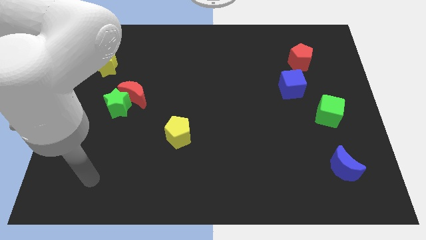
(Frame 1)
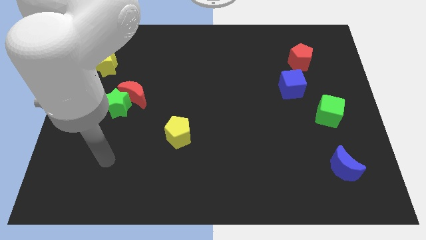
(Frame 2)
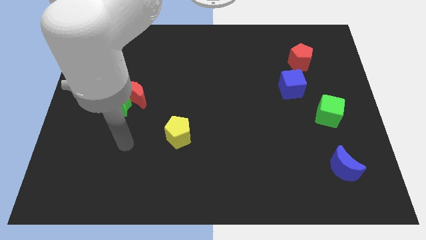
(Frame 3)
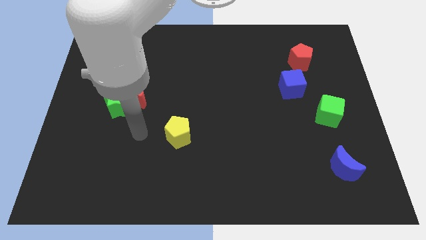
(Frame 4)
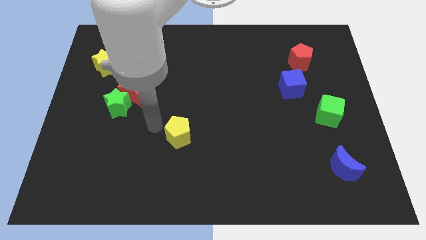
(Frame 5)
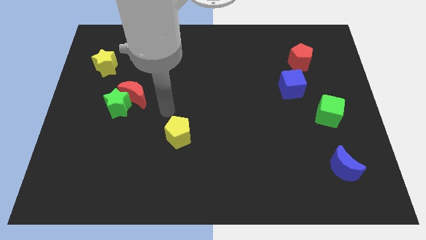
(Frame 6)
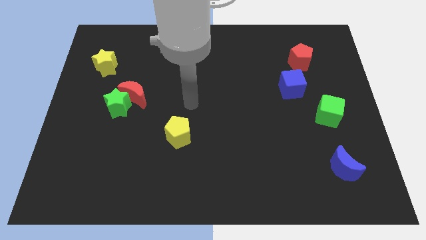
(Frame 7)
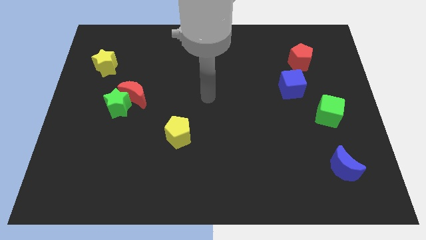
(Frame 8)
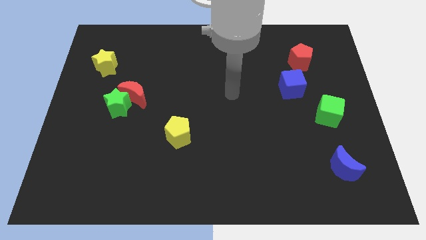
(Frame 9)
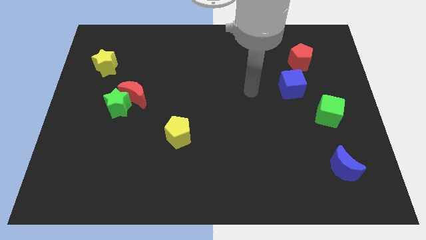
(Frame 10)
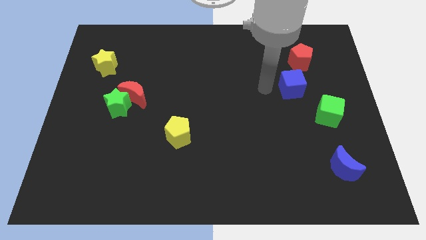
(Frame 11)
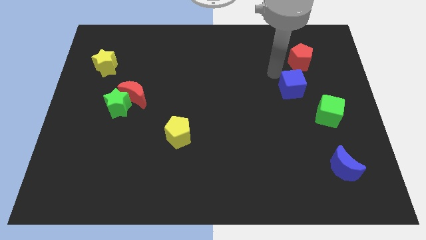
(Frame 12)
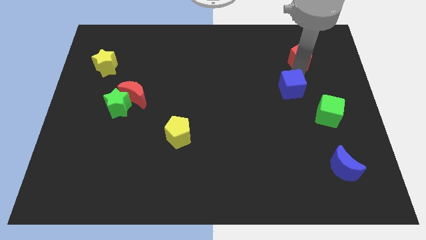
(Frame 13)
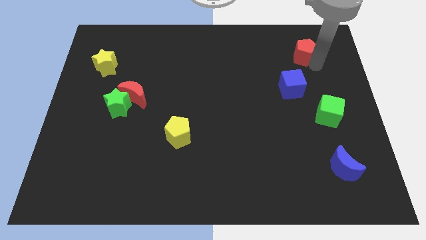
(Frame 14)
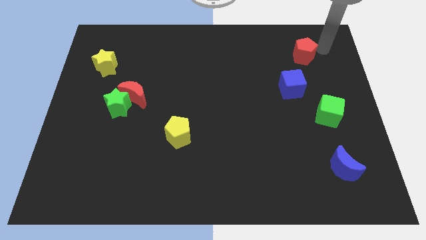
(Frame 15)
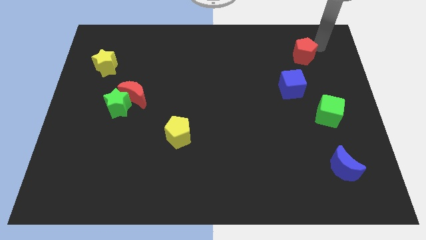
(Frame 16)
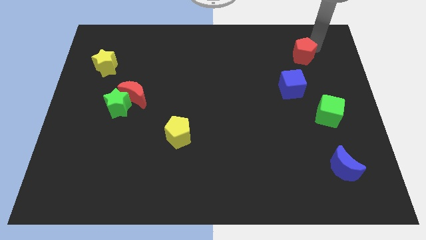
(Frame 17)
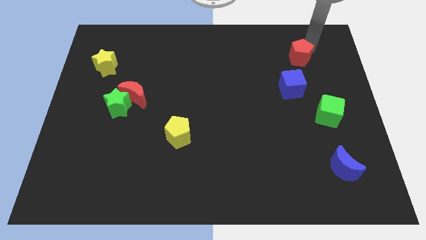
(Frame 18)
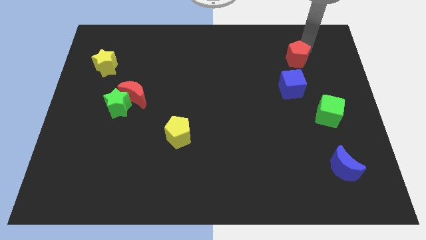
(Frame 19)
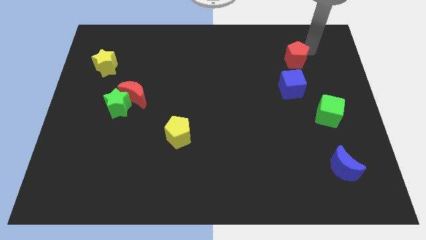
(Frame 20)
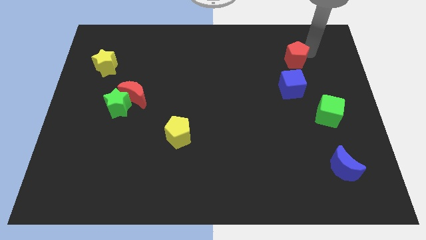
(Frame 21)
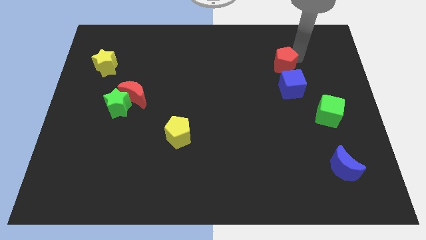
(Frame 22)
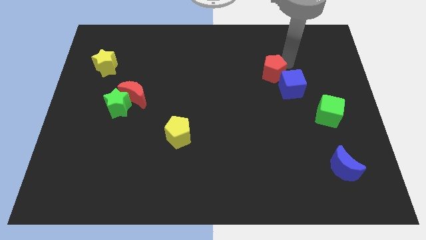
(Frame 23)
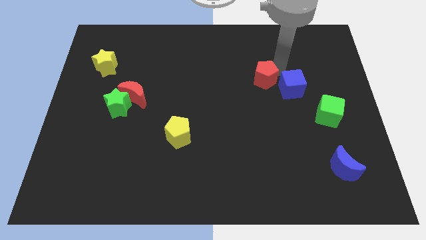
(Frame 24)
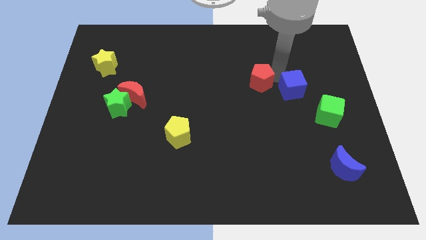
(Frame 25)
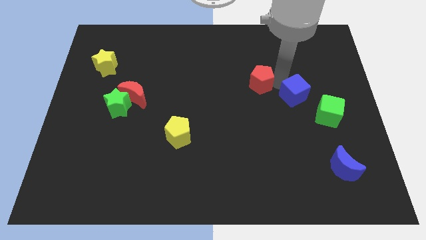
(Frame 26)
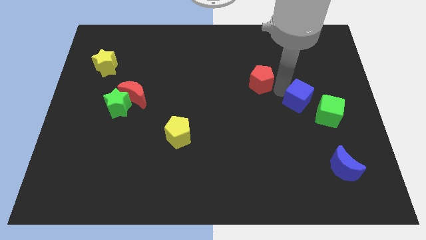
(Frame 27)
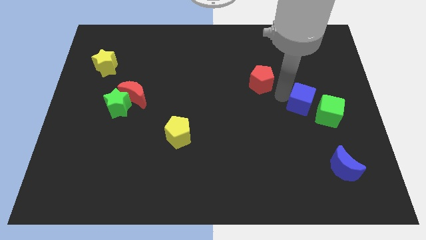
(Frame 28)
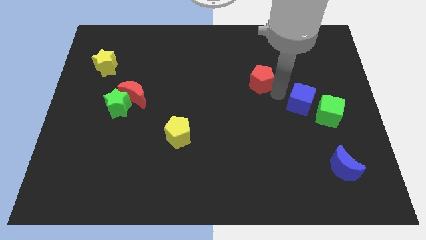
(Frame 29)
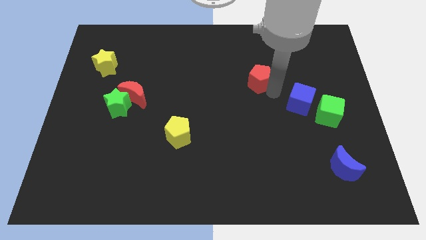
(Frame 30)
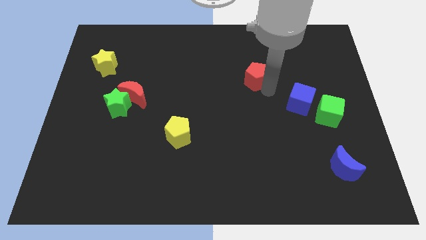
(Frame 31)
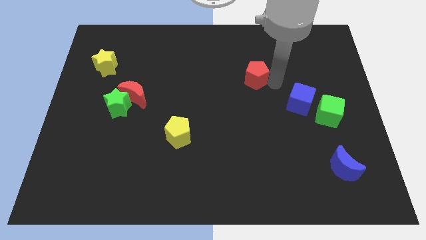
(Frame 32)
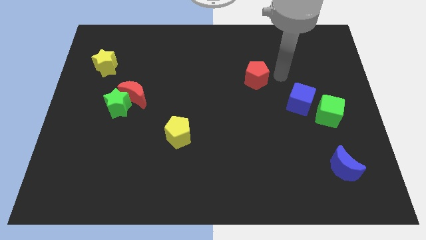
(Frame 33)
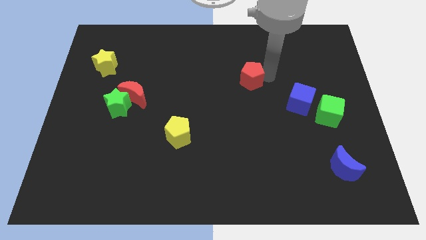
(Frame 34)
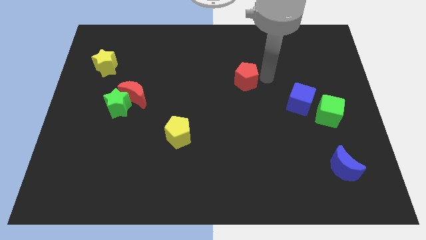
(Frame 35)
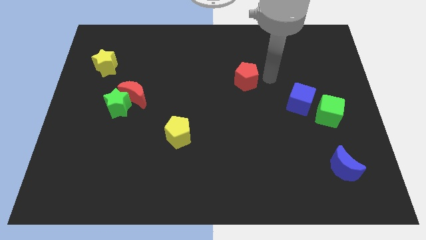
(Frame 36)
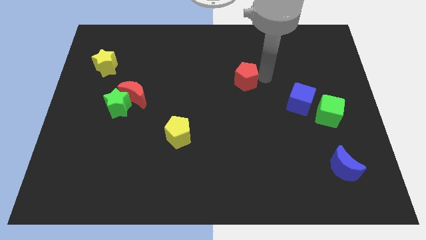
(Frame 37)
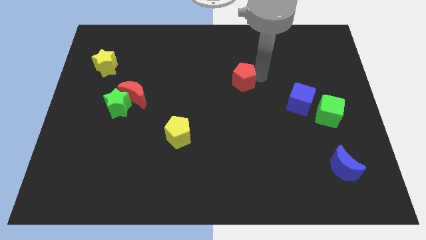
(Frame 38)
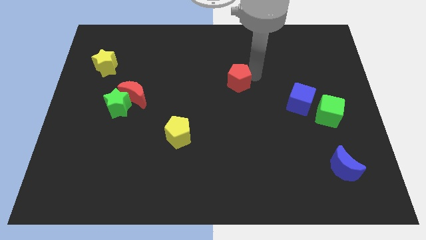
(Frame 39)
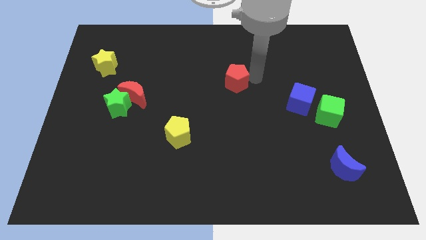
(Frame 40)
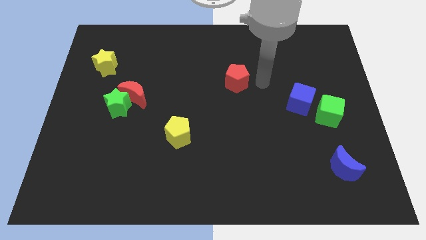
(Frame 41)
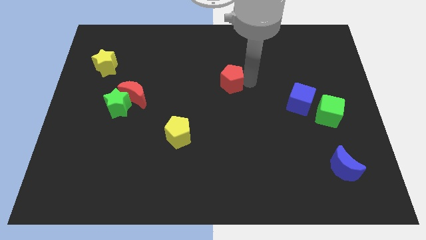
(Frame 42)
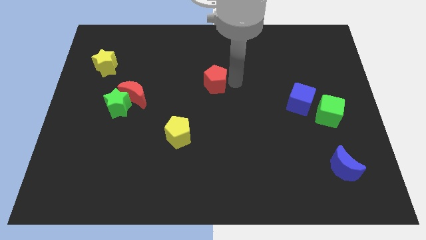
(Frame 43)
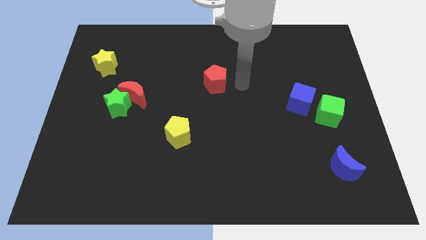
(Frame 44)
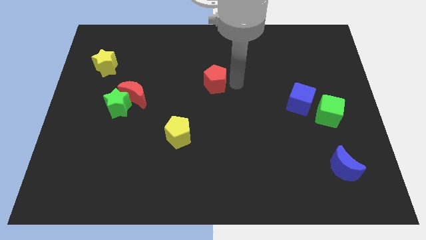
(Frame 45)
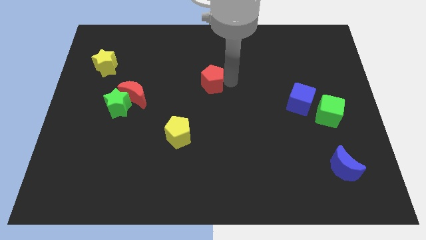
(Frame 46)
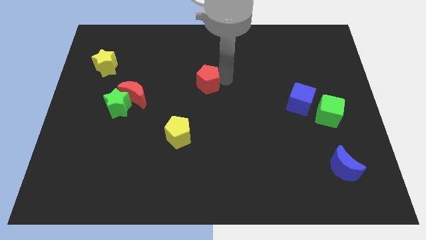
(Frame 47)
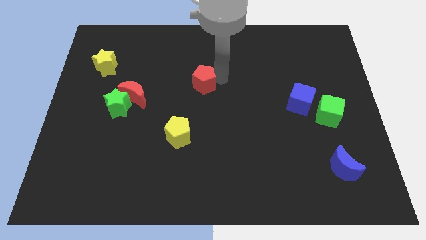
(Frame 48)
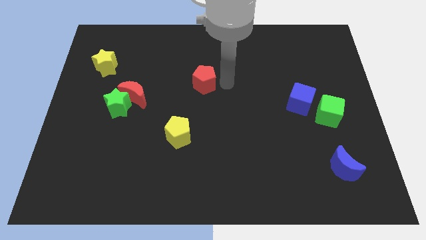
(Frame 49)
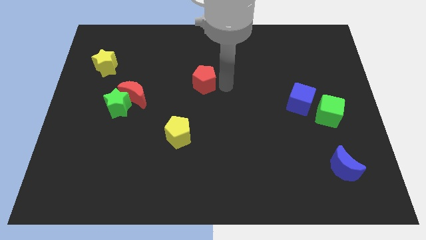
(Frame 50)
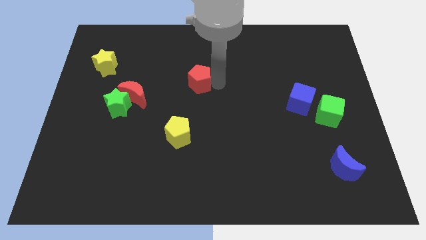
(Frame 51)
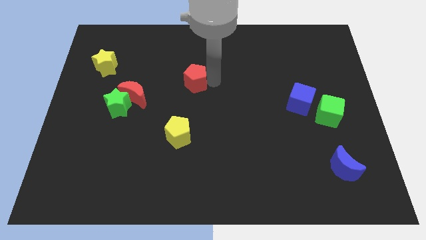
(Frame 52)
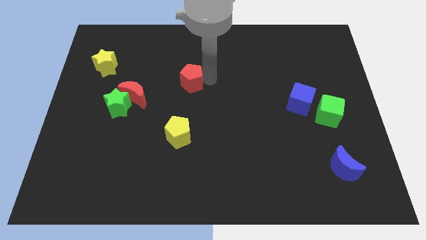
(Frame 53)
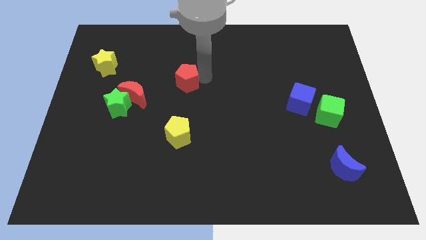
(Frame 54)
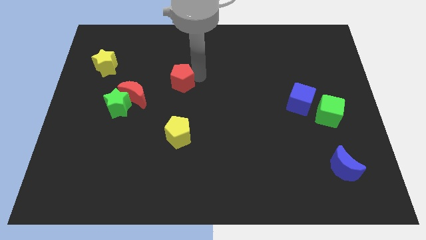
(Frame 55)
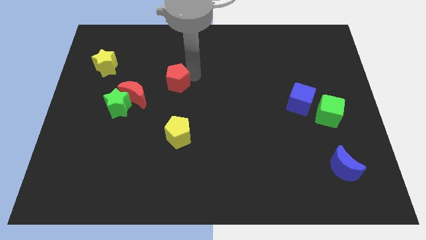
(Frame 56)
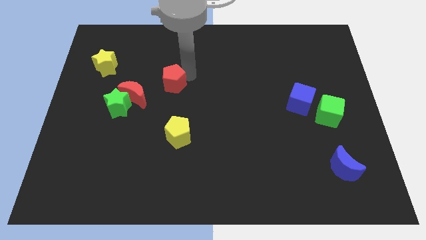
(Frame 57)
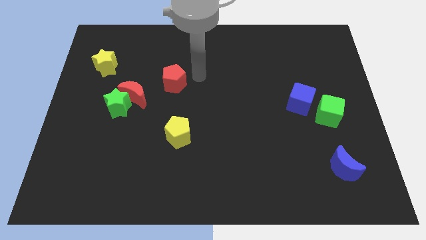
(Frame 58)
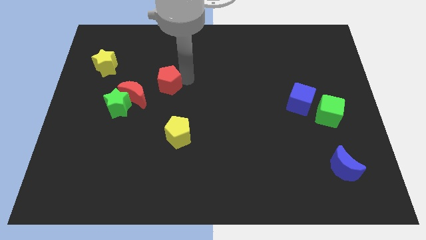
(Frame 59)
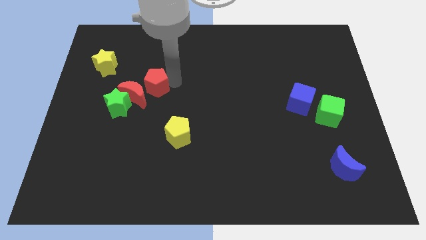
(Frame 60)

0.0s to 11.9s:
push the red pentagon close to the red moon

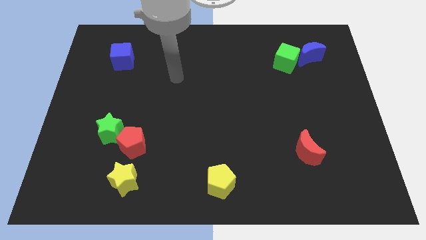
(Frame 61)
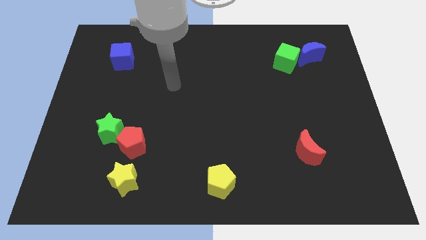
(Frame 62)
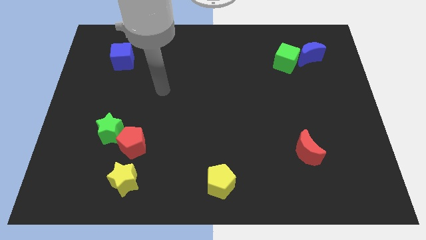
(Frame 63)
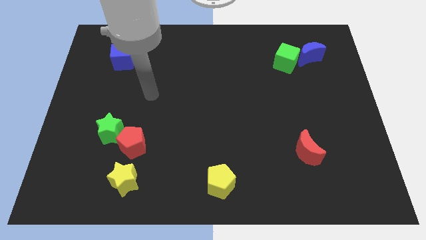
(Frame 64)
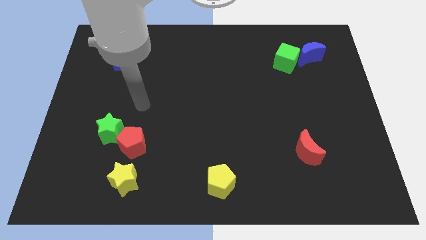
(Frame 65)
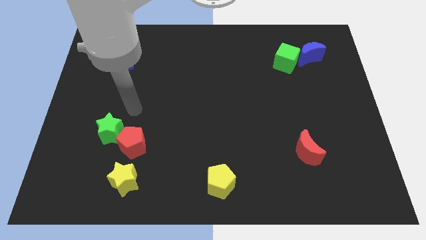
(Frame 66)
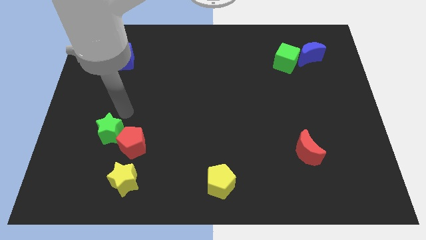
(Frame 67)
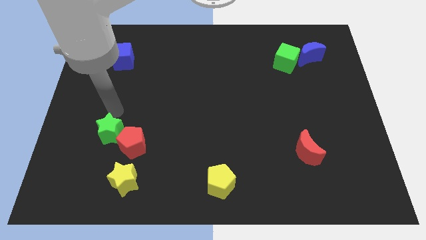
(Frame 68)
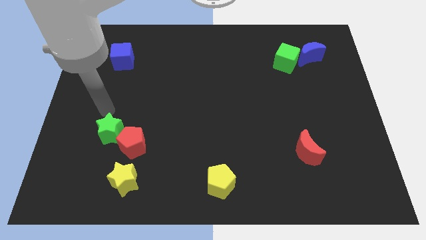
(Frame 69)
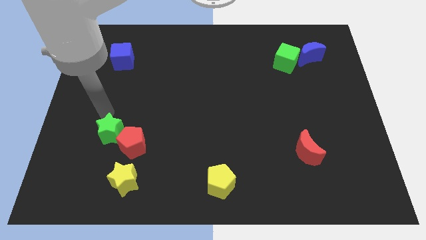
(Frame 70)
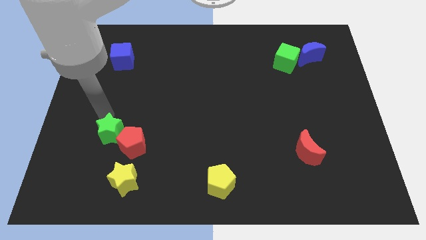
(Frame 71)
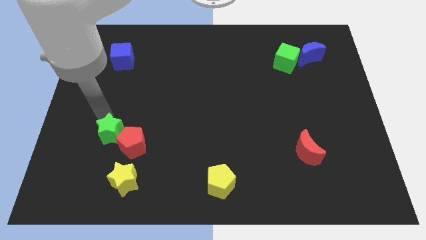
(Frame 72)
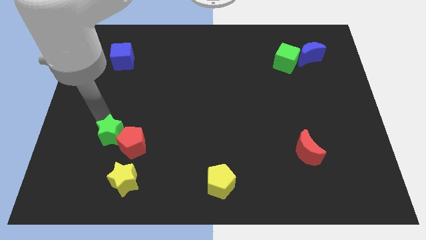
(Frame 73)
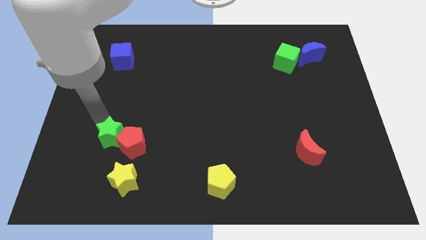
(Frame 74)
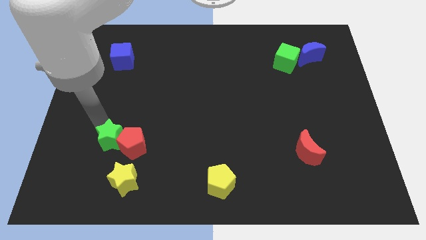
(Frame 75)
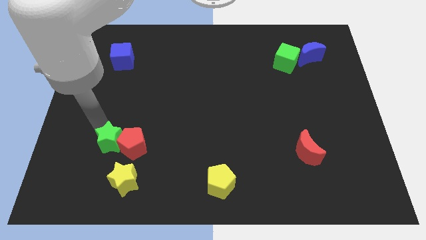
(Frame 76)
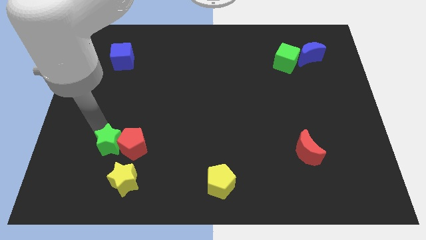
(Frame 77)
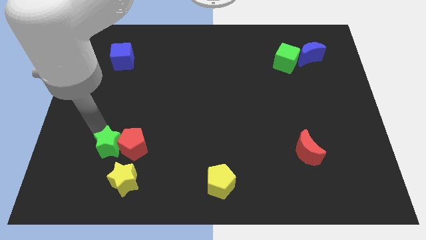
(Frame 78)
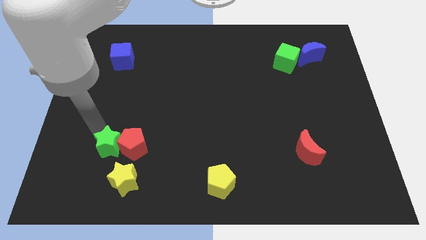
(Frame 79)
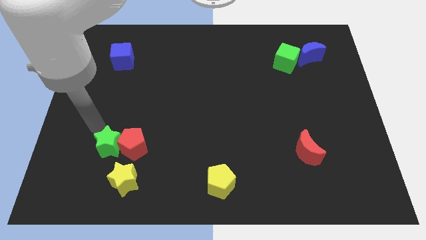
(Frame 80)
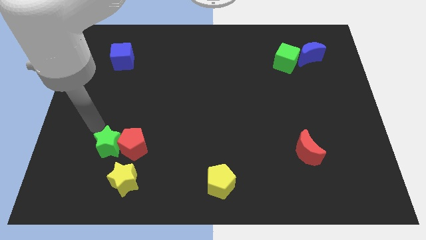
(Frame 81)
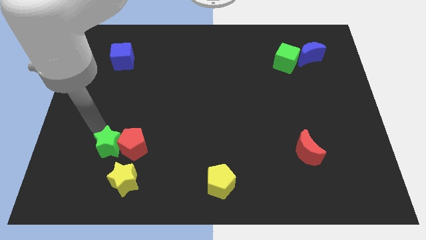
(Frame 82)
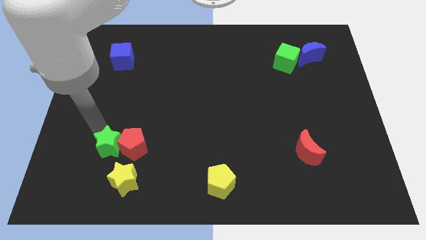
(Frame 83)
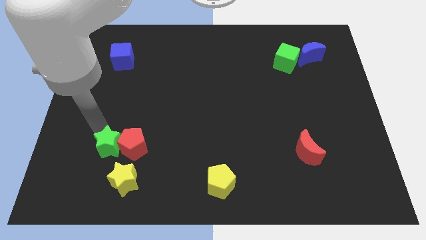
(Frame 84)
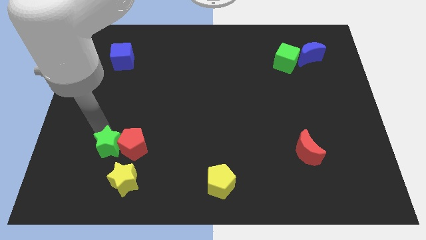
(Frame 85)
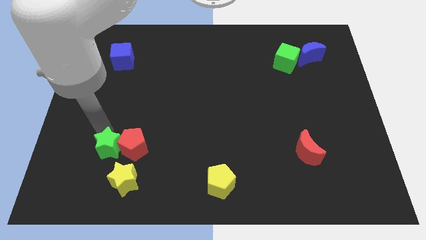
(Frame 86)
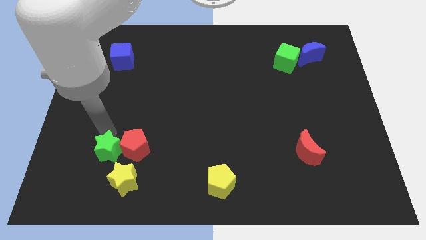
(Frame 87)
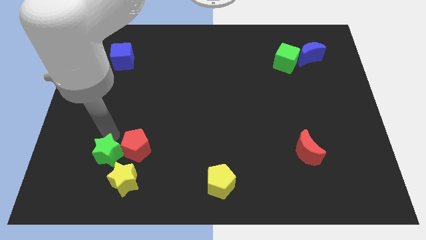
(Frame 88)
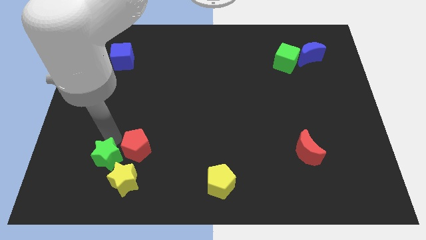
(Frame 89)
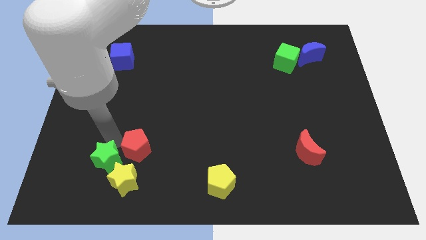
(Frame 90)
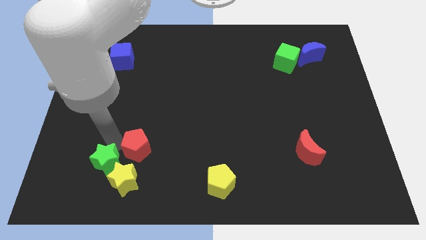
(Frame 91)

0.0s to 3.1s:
slide the green star close to the yellow star
